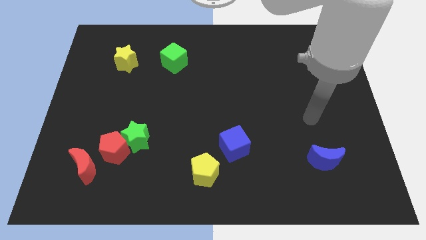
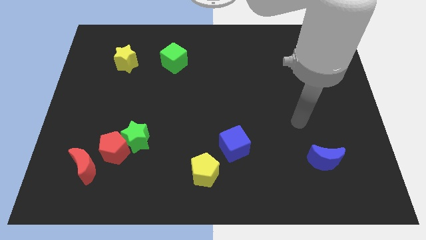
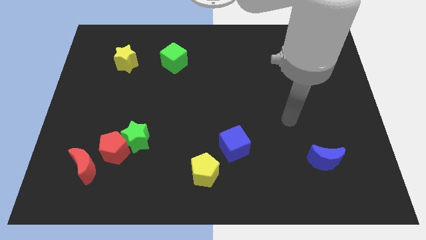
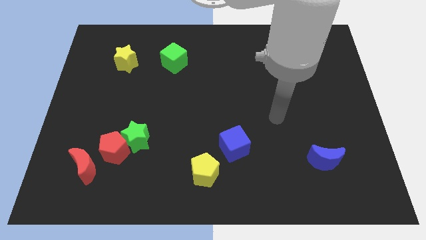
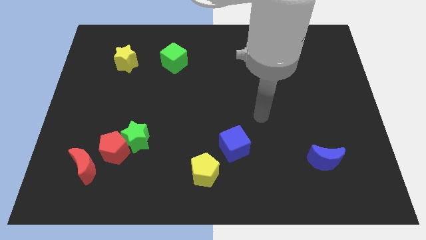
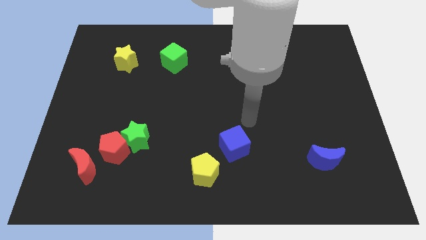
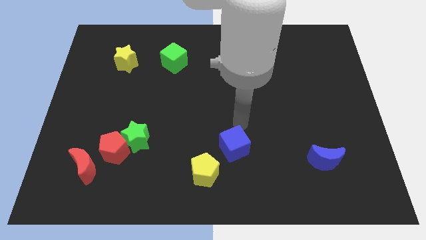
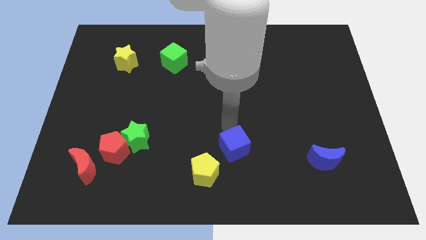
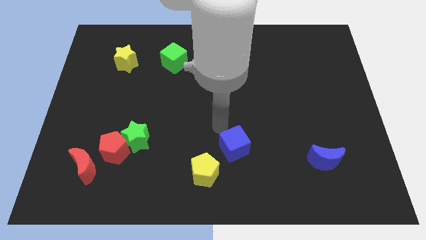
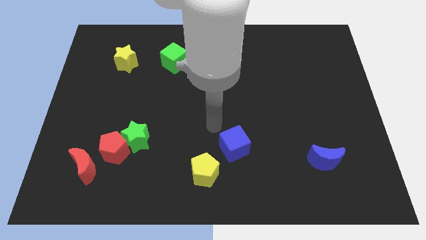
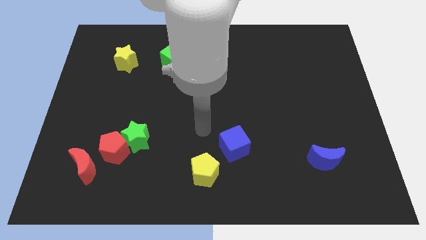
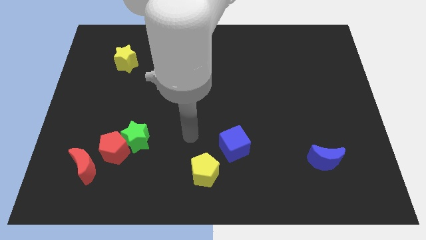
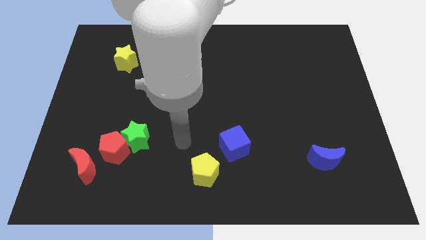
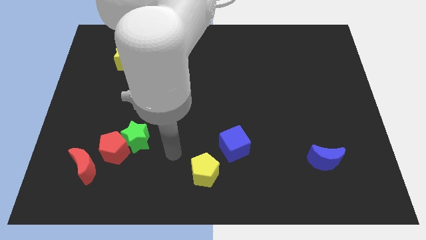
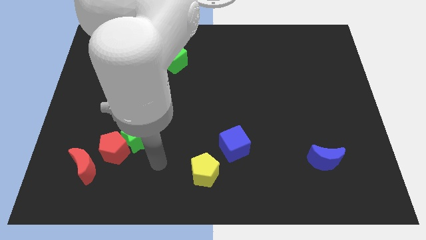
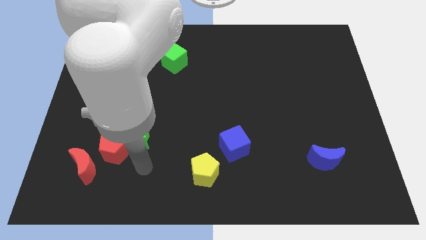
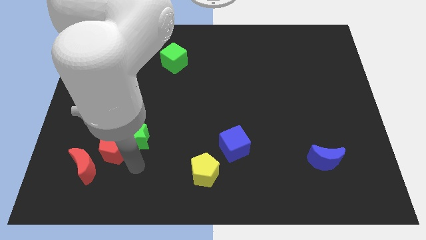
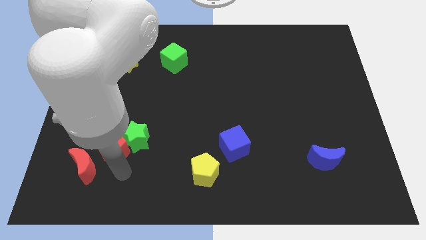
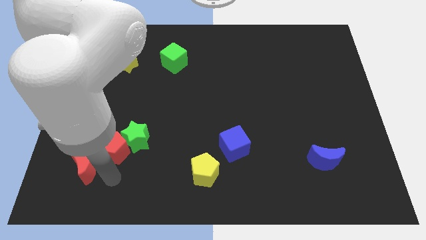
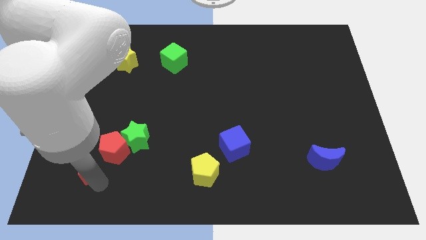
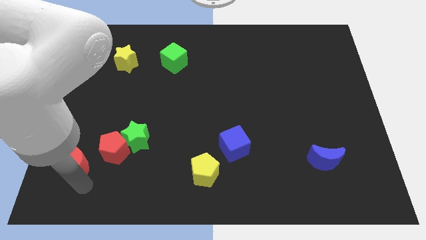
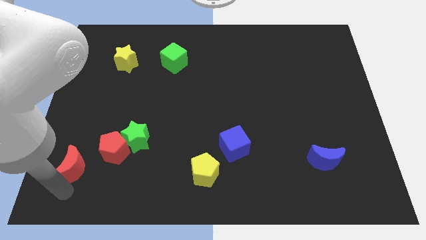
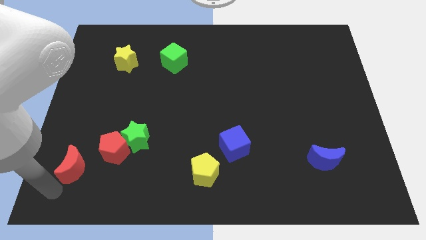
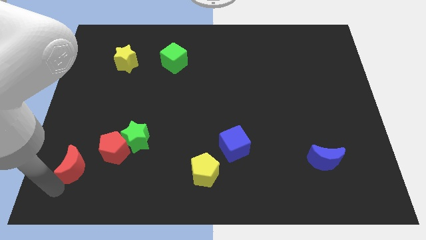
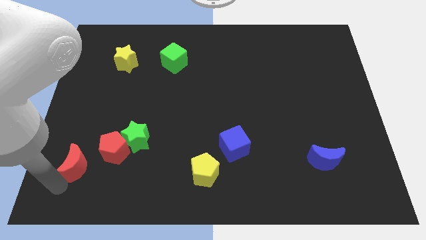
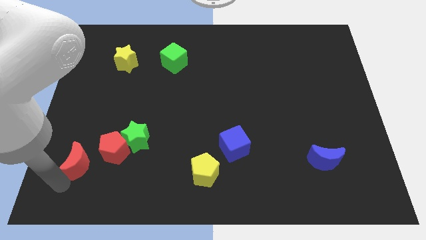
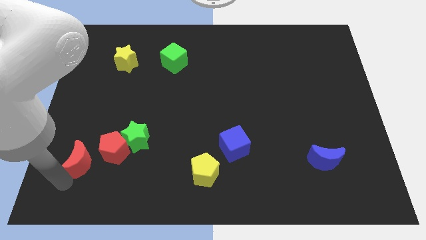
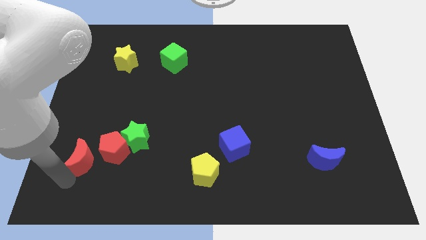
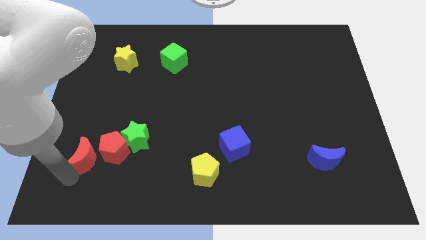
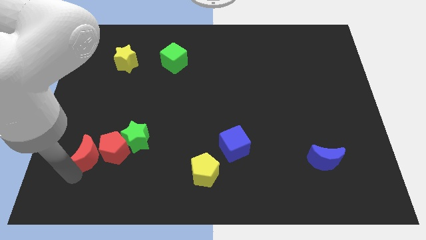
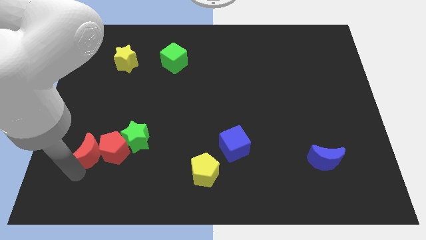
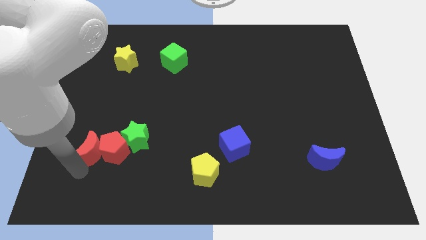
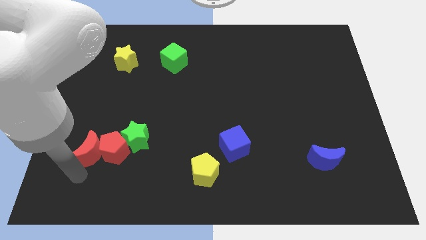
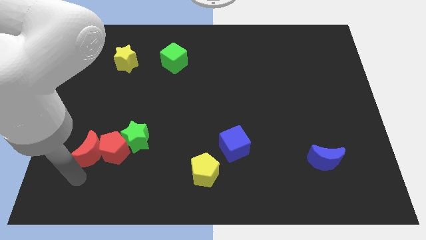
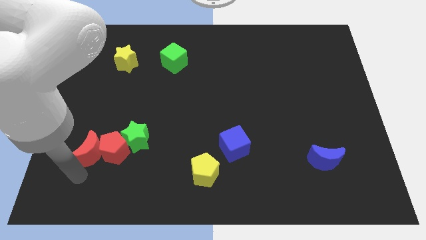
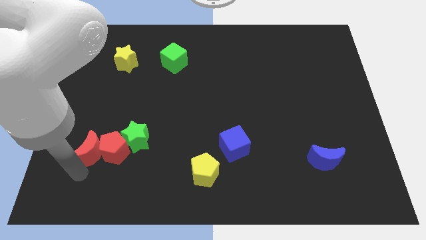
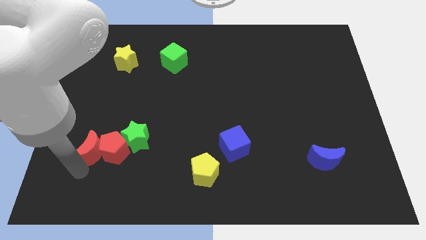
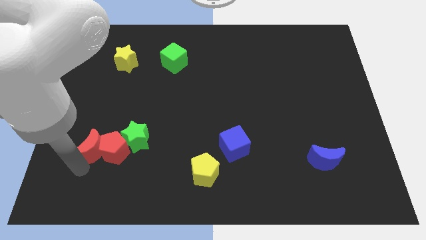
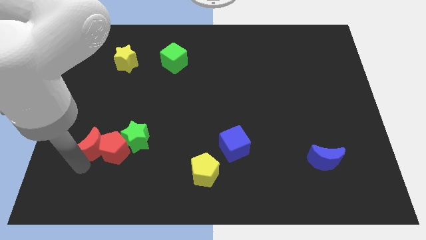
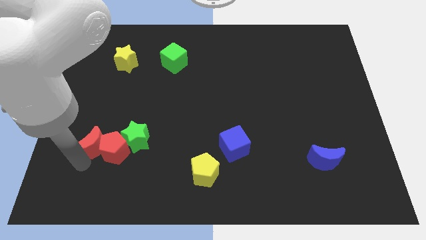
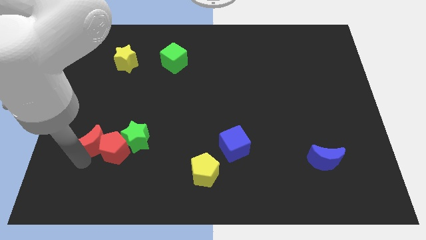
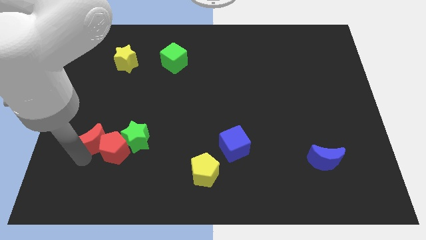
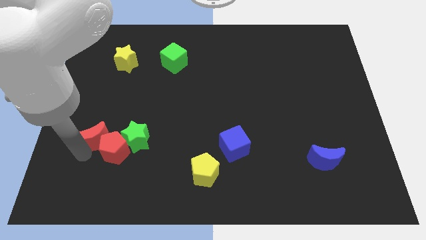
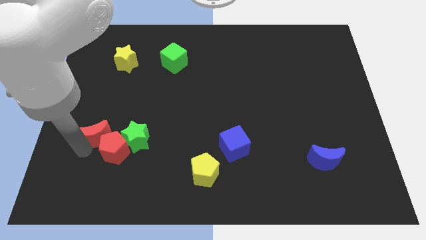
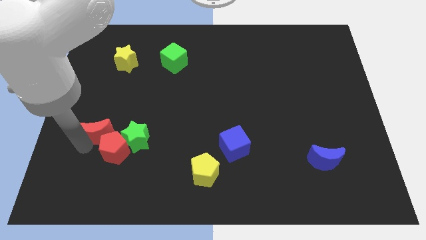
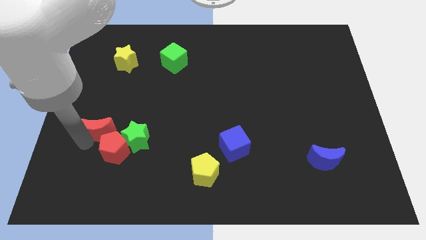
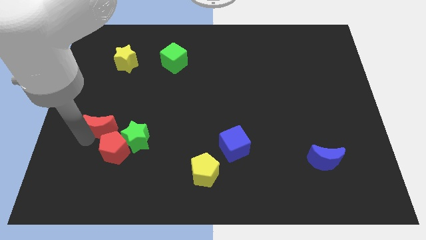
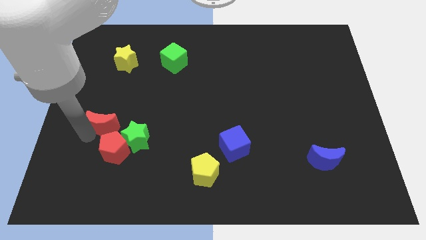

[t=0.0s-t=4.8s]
push the red moon a little upwards and then right

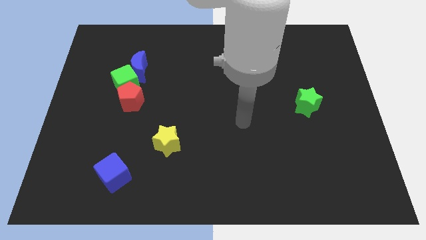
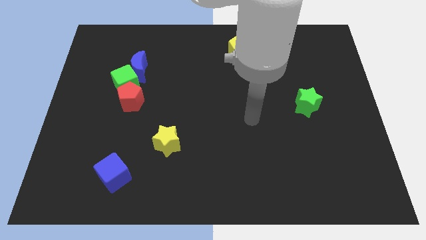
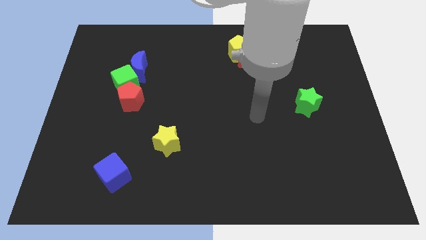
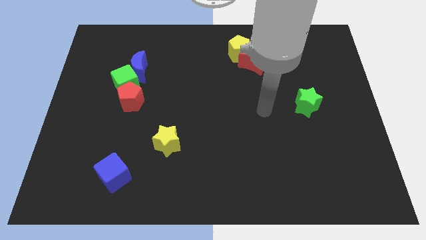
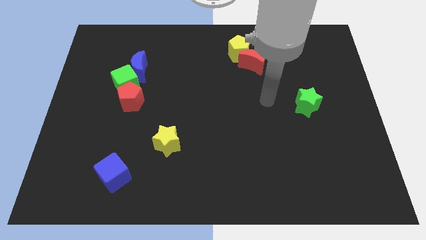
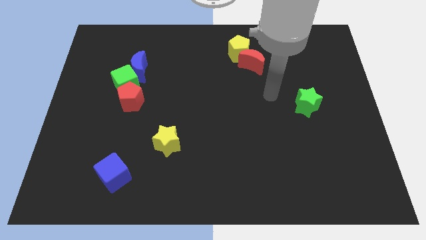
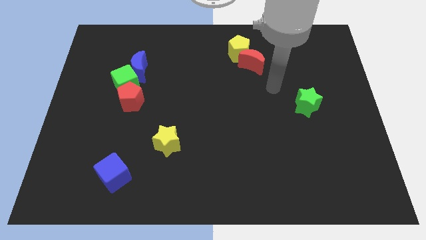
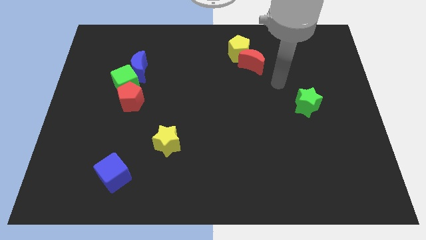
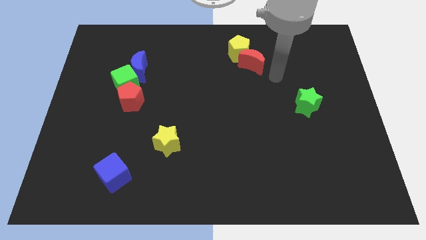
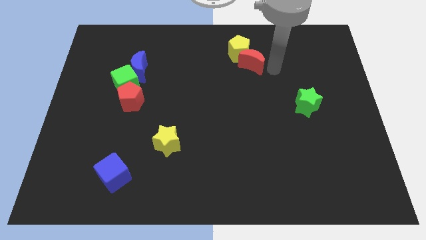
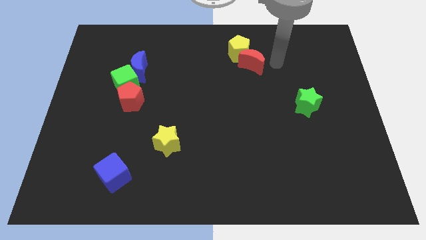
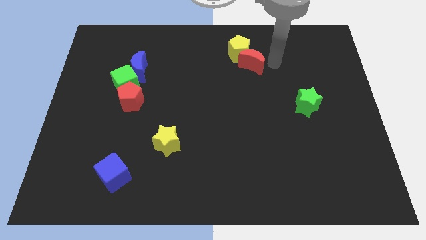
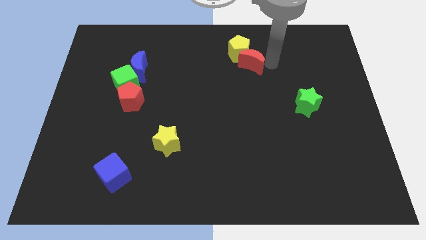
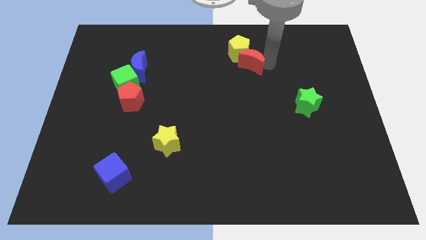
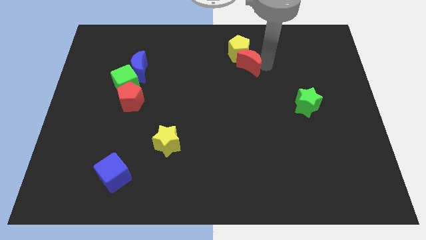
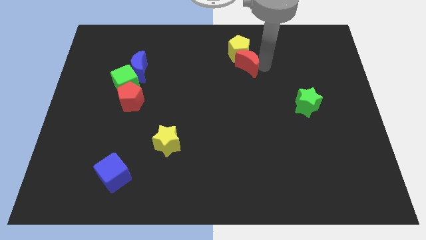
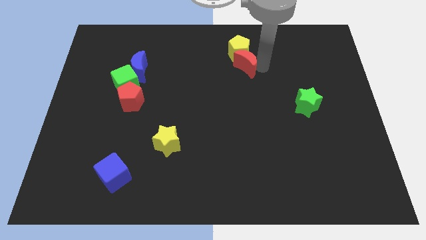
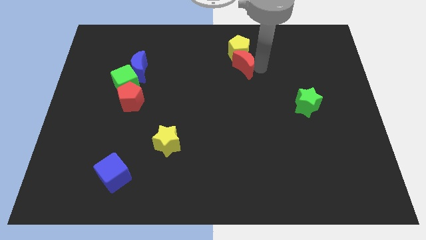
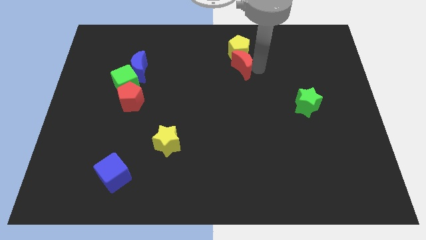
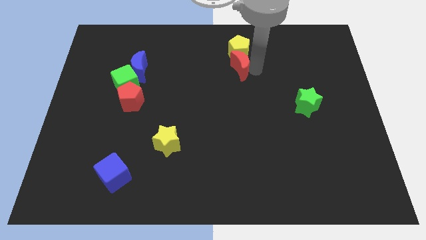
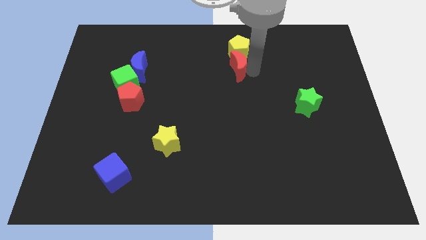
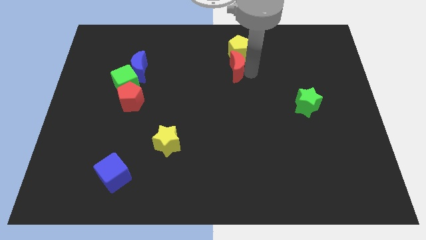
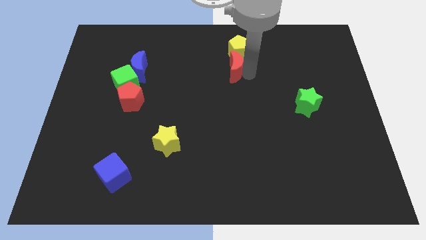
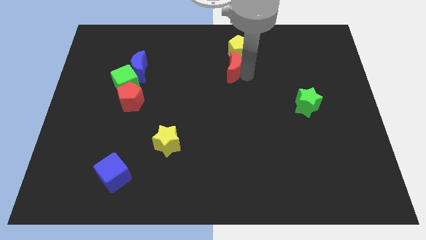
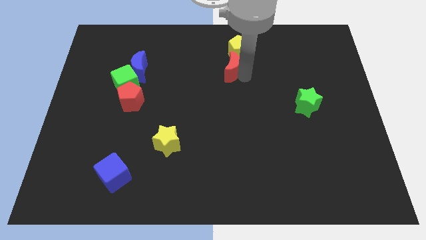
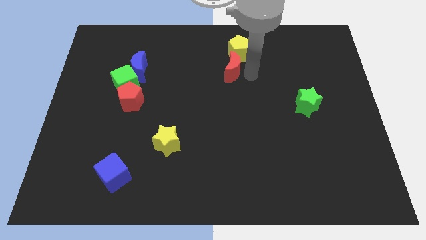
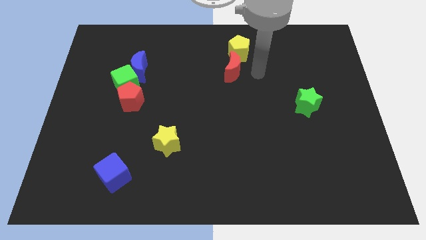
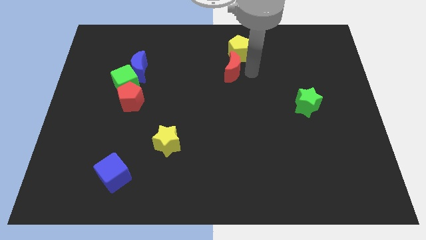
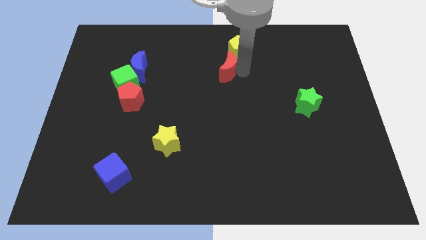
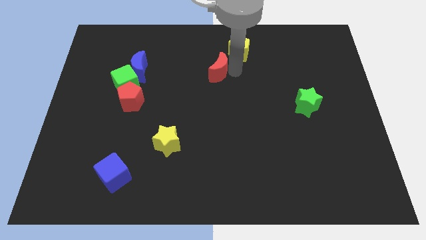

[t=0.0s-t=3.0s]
push the red moon left a little

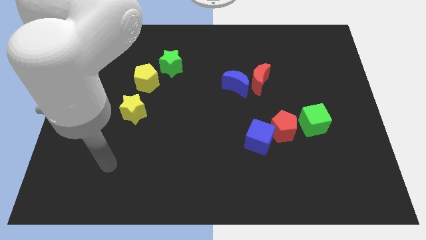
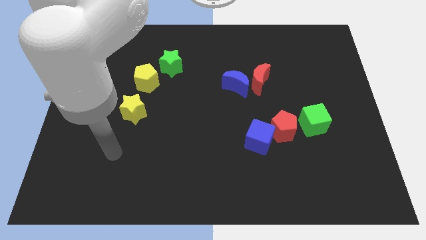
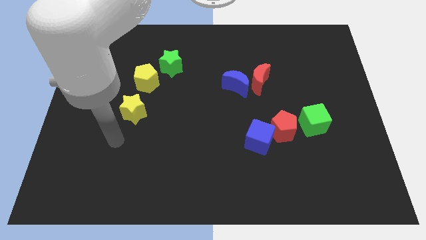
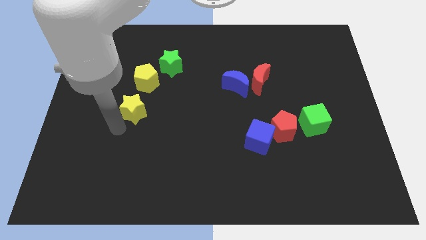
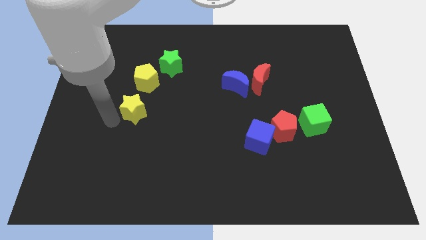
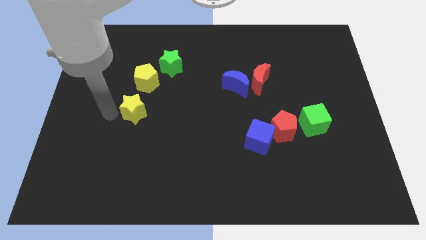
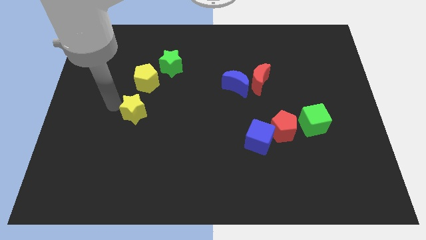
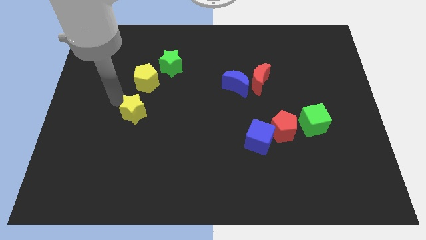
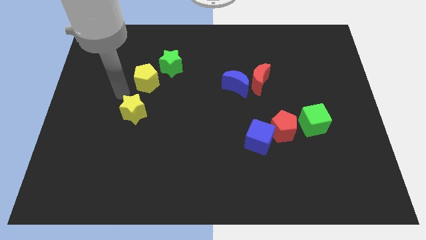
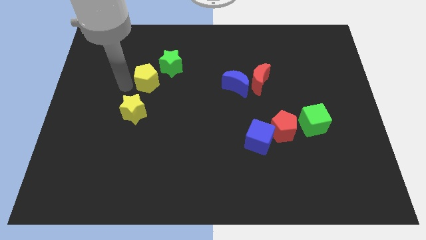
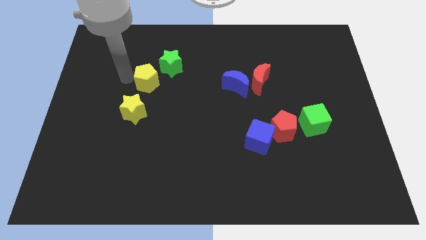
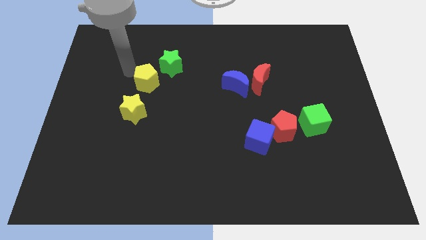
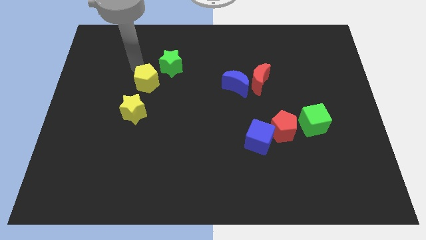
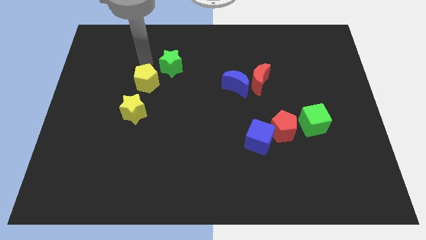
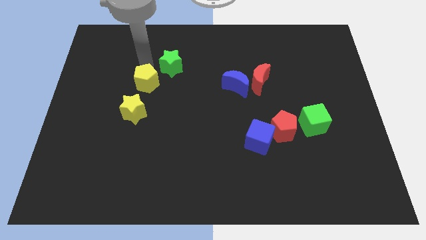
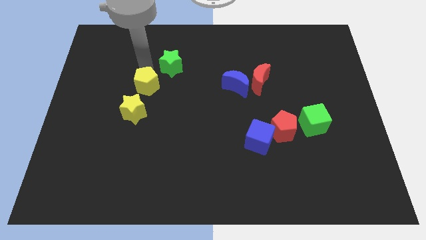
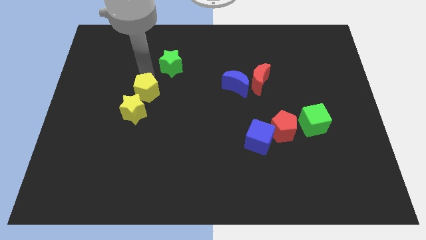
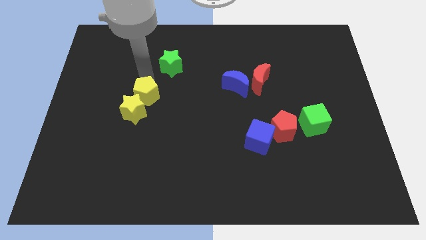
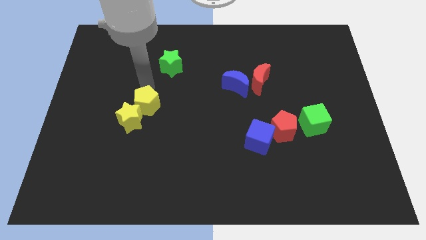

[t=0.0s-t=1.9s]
push the yellow pentagon a little bit down
